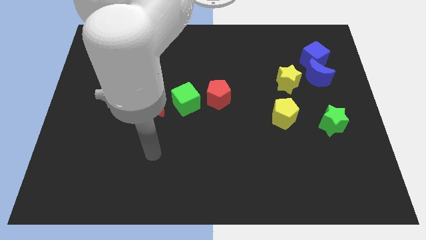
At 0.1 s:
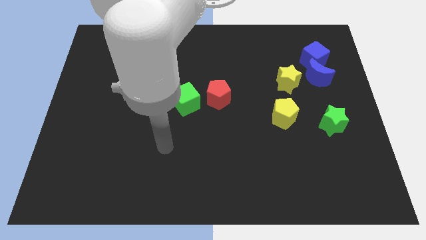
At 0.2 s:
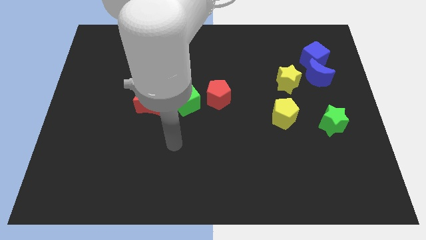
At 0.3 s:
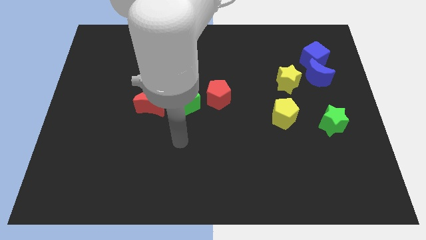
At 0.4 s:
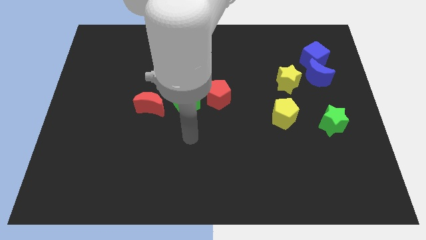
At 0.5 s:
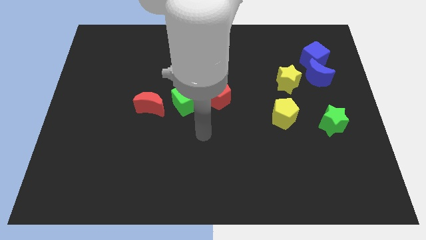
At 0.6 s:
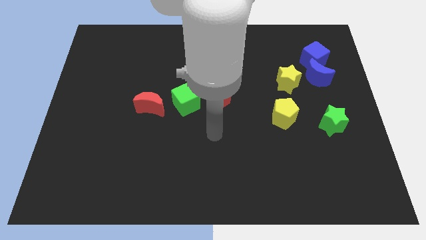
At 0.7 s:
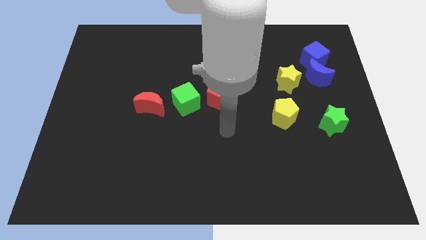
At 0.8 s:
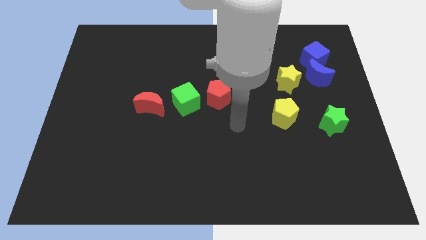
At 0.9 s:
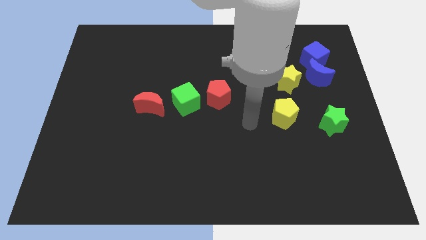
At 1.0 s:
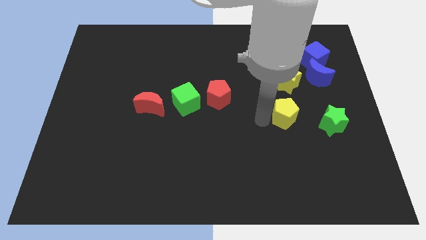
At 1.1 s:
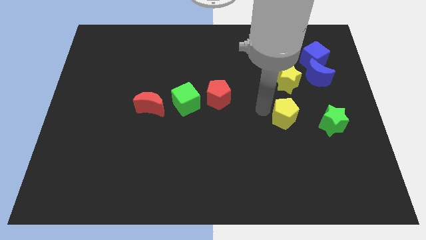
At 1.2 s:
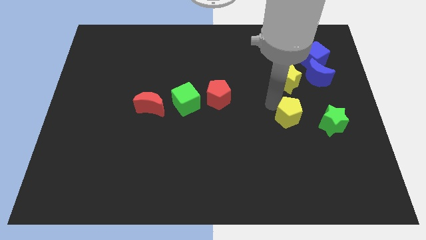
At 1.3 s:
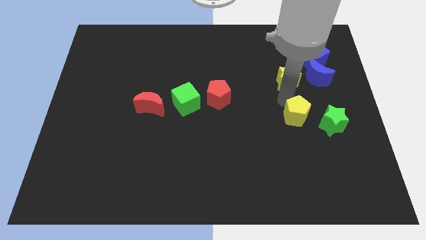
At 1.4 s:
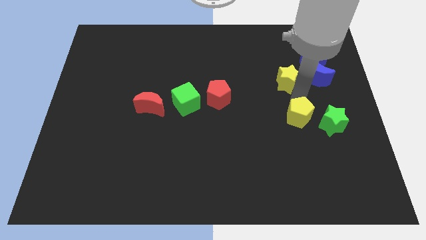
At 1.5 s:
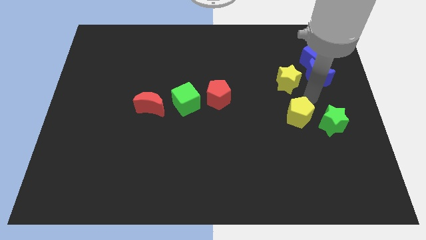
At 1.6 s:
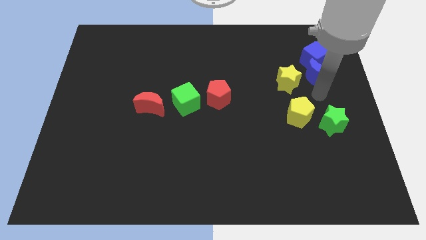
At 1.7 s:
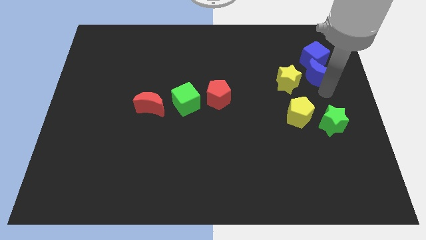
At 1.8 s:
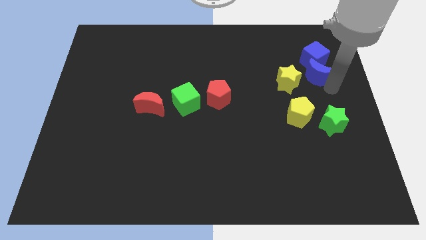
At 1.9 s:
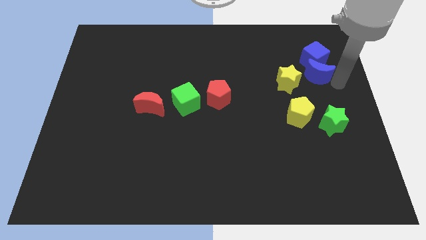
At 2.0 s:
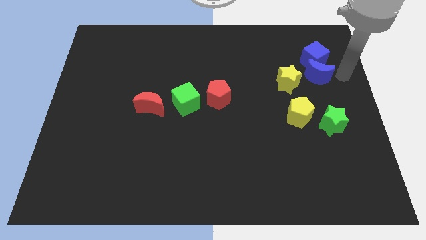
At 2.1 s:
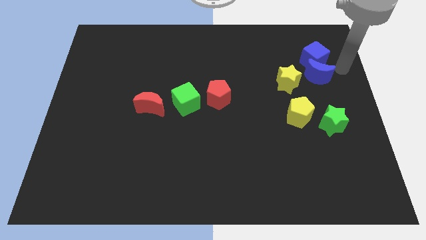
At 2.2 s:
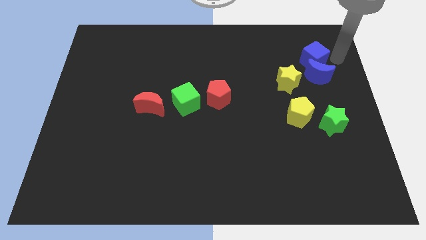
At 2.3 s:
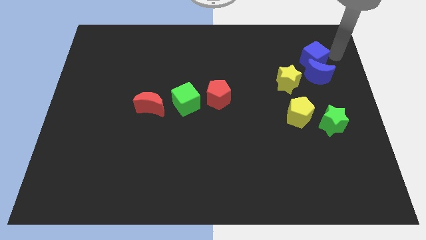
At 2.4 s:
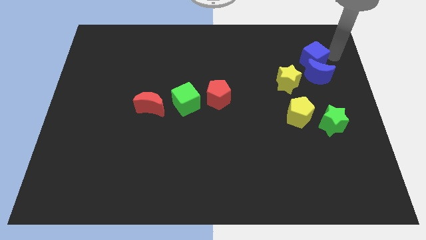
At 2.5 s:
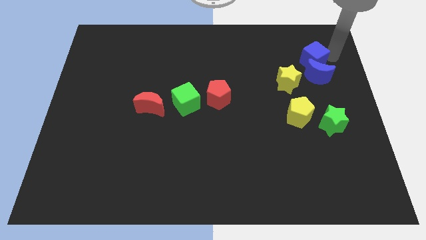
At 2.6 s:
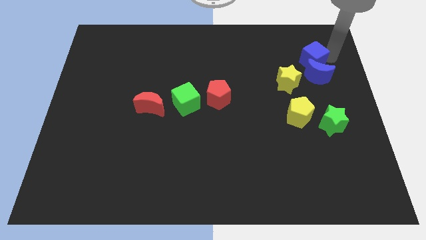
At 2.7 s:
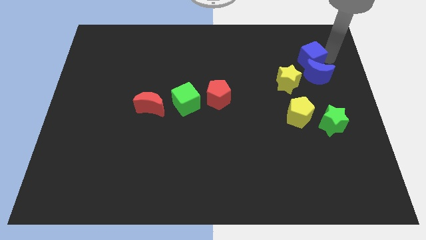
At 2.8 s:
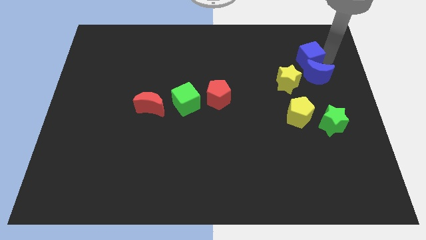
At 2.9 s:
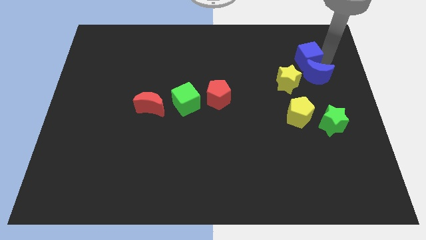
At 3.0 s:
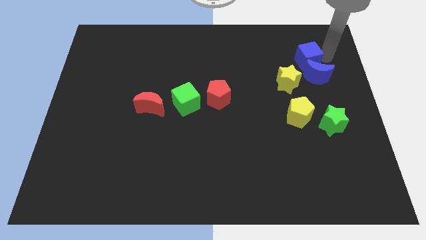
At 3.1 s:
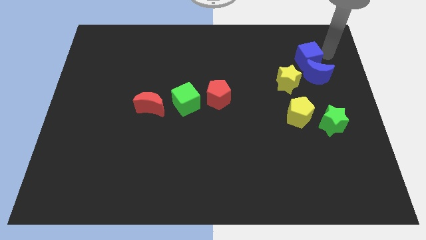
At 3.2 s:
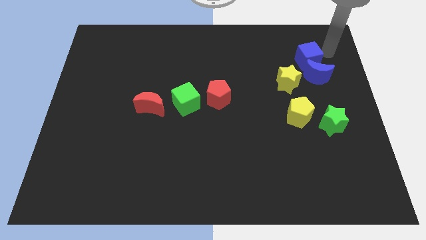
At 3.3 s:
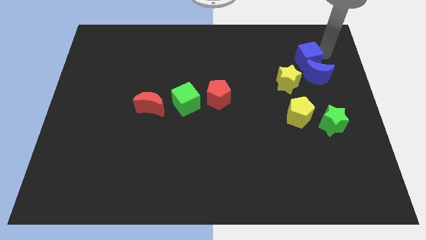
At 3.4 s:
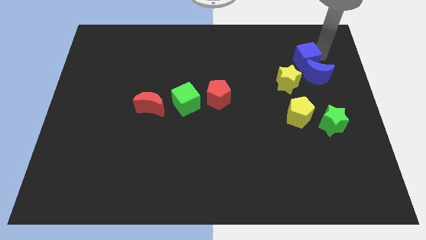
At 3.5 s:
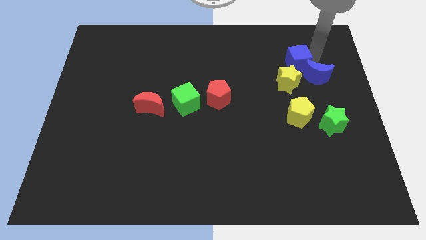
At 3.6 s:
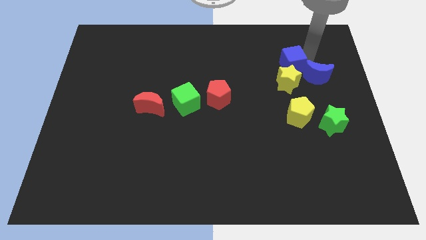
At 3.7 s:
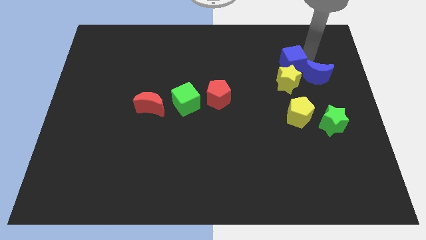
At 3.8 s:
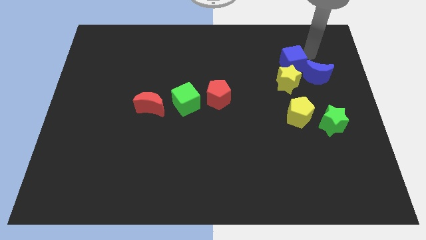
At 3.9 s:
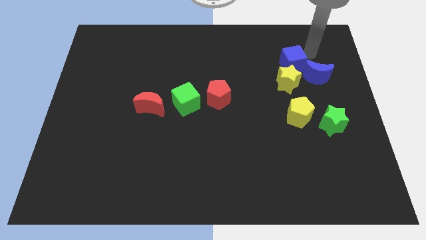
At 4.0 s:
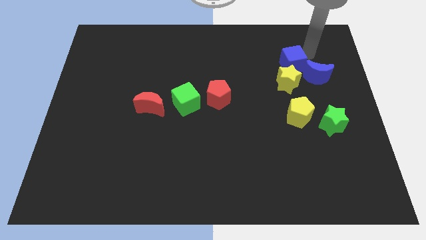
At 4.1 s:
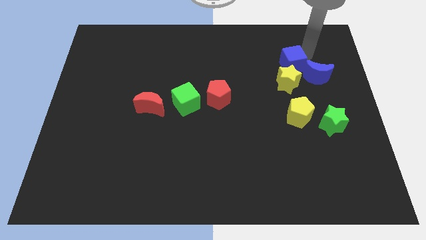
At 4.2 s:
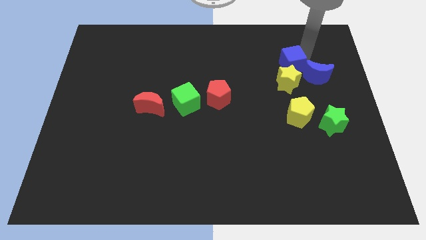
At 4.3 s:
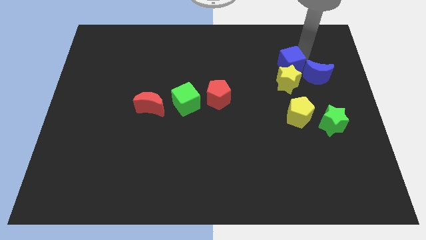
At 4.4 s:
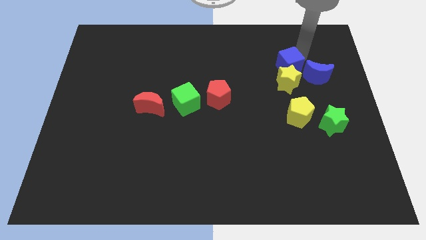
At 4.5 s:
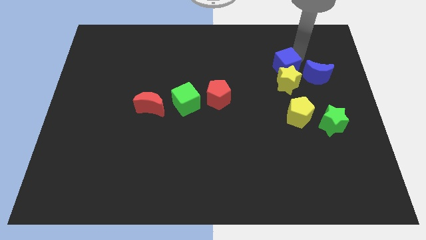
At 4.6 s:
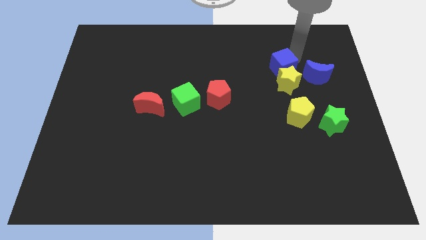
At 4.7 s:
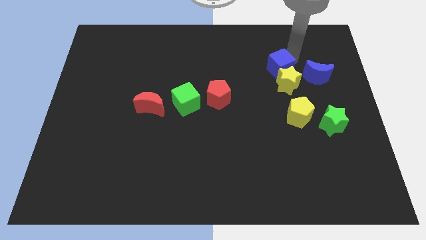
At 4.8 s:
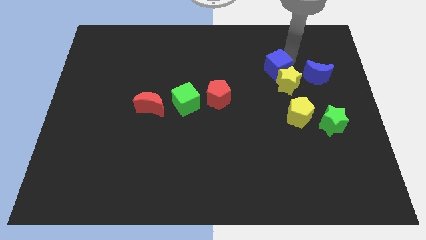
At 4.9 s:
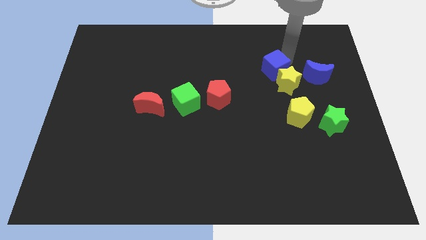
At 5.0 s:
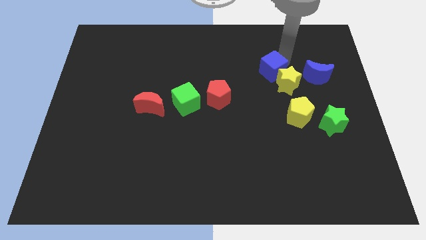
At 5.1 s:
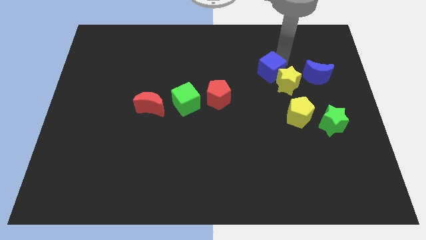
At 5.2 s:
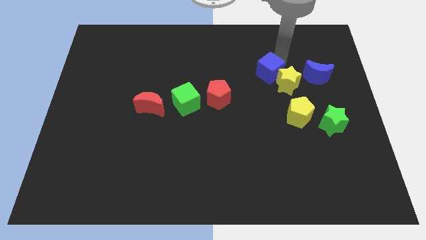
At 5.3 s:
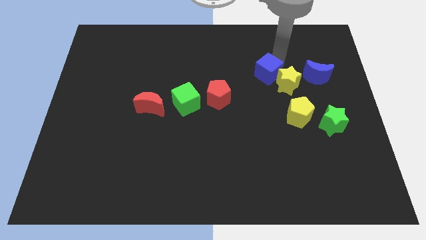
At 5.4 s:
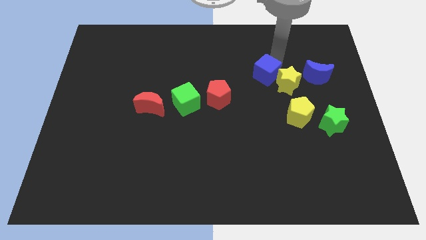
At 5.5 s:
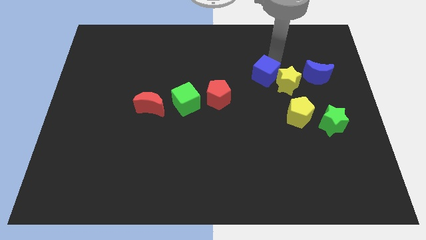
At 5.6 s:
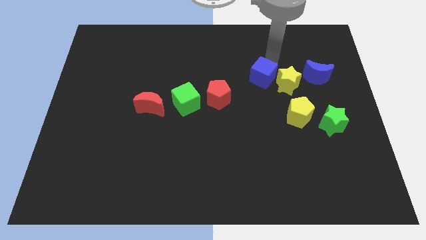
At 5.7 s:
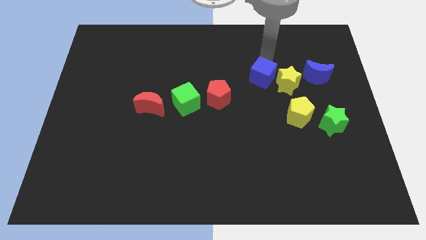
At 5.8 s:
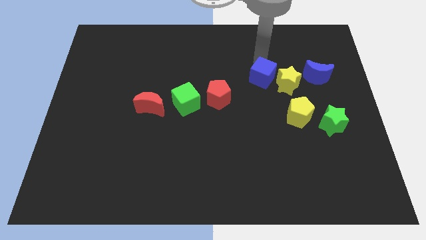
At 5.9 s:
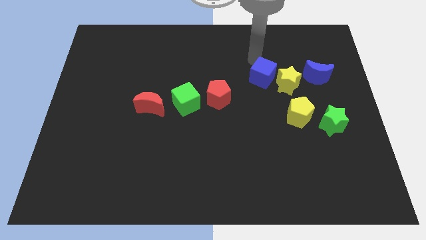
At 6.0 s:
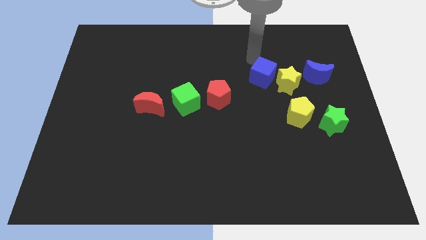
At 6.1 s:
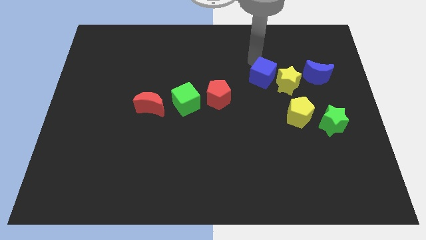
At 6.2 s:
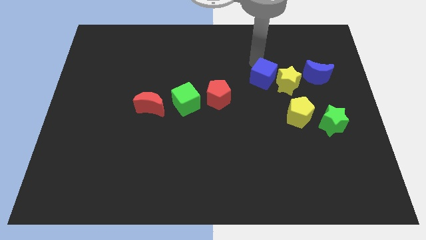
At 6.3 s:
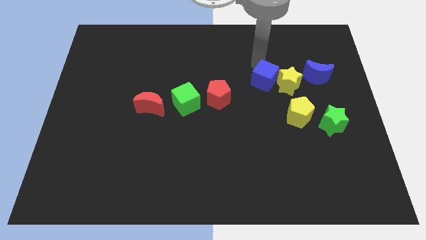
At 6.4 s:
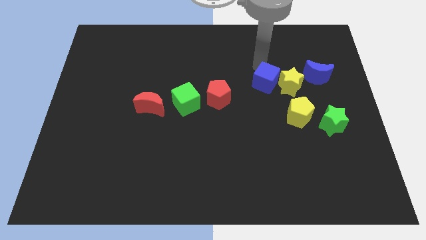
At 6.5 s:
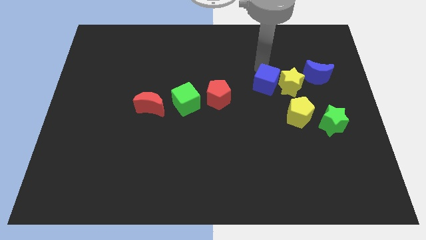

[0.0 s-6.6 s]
put the blue cube diagonally up and to the left of the yellow pentagon

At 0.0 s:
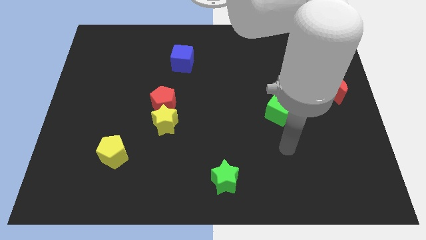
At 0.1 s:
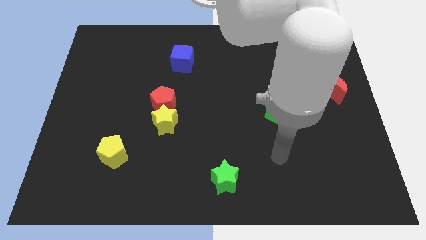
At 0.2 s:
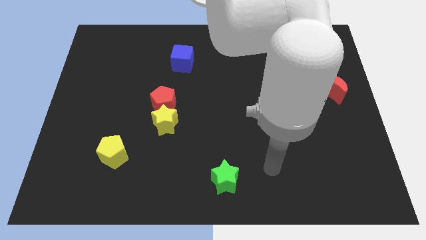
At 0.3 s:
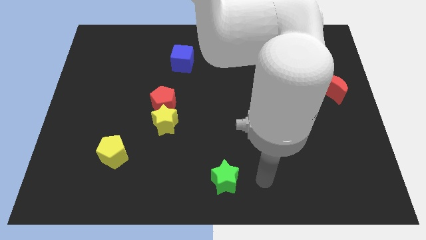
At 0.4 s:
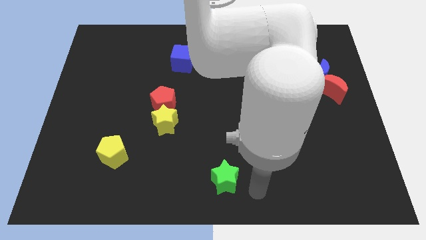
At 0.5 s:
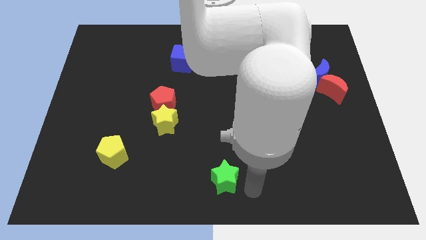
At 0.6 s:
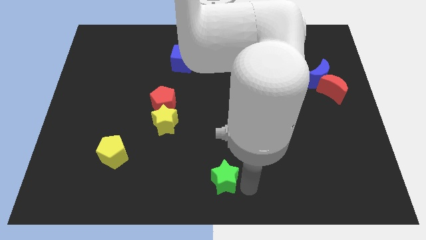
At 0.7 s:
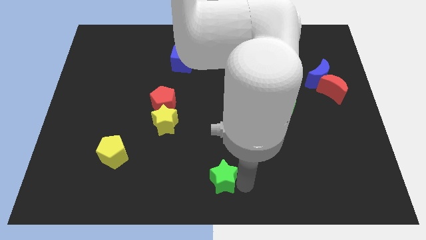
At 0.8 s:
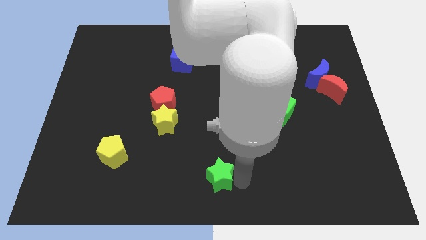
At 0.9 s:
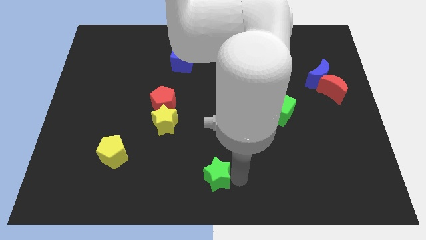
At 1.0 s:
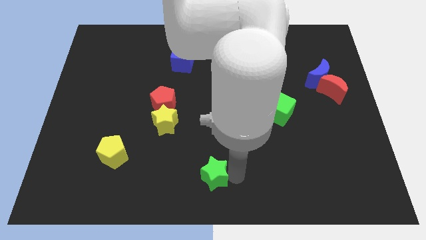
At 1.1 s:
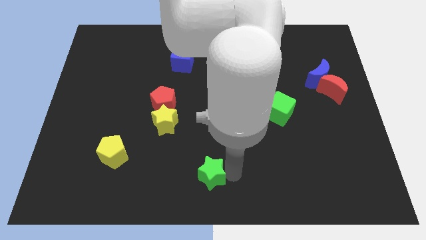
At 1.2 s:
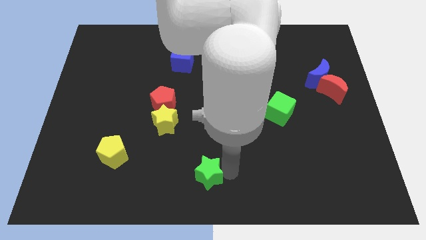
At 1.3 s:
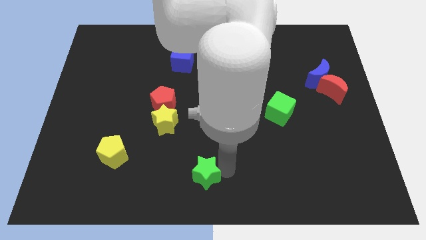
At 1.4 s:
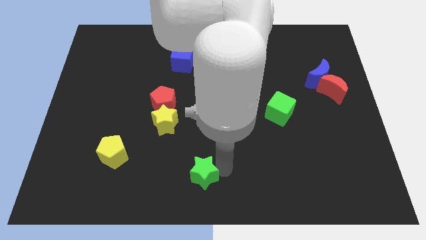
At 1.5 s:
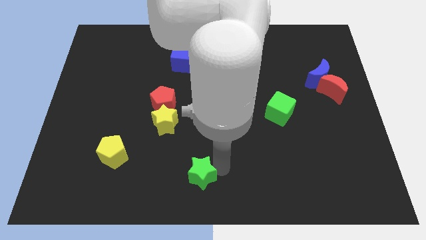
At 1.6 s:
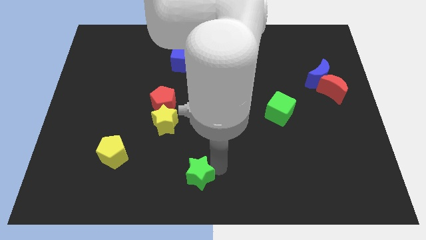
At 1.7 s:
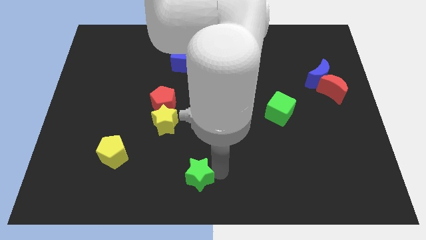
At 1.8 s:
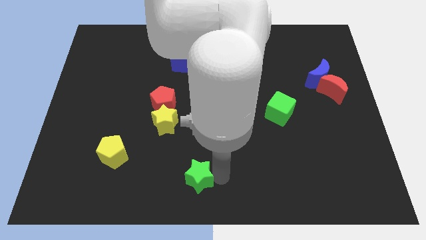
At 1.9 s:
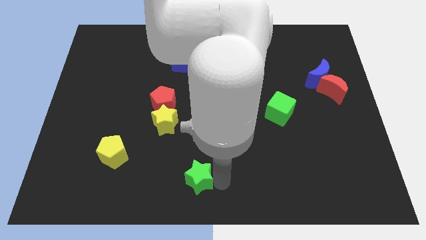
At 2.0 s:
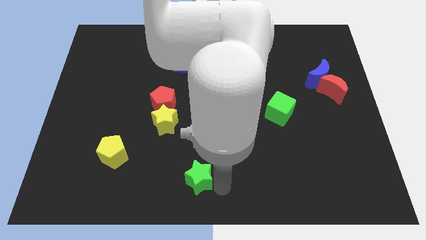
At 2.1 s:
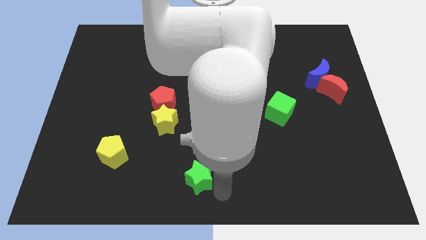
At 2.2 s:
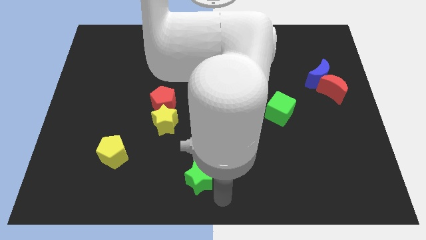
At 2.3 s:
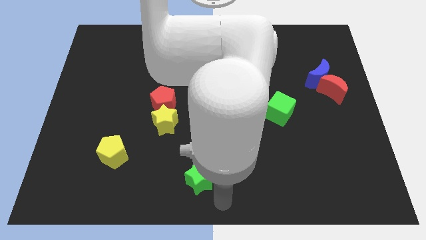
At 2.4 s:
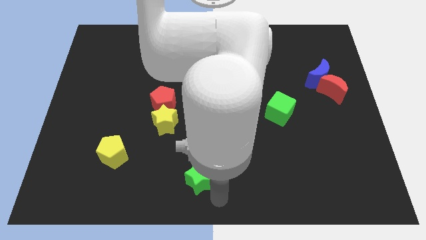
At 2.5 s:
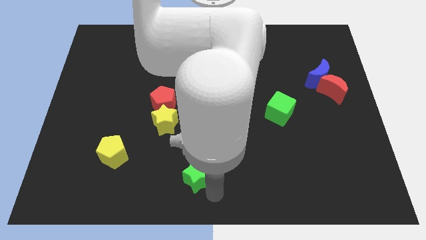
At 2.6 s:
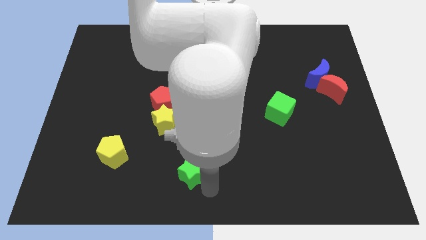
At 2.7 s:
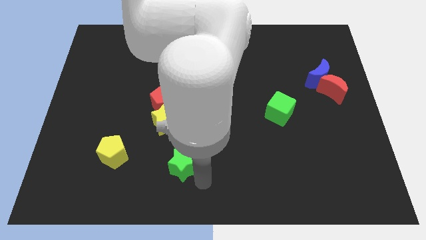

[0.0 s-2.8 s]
push the green star to the right of the yellow pentagon
